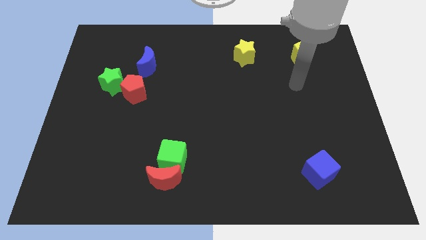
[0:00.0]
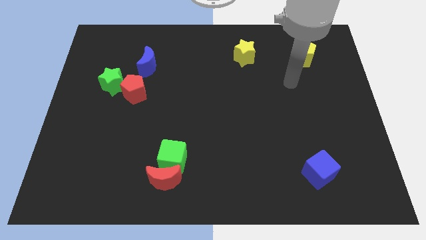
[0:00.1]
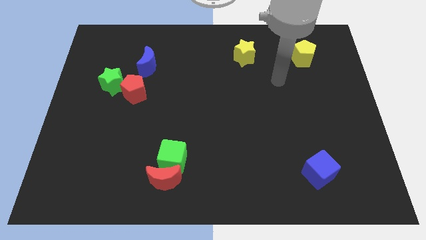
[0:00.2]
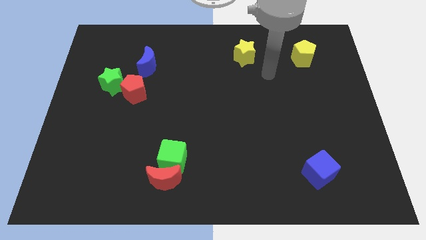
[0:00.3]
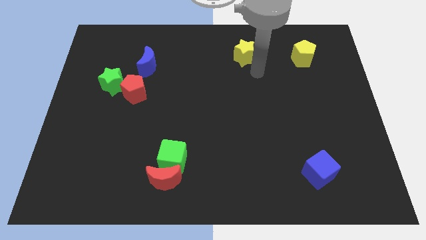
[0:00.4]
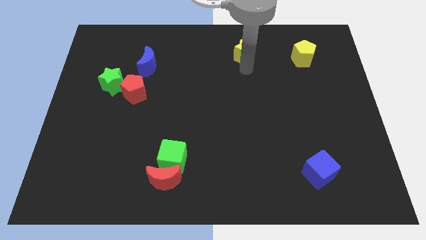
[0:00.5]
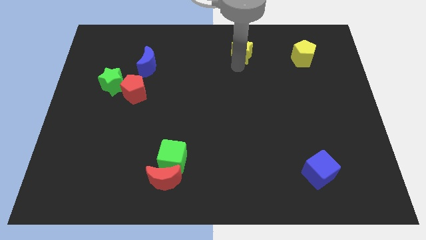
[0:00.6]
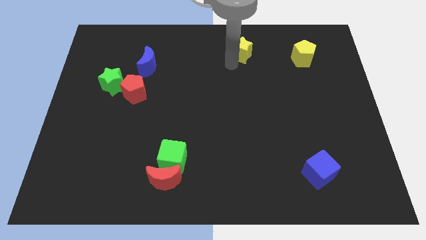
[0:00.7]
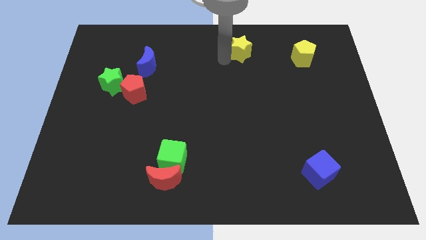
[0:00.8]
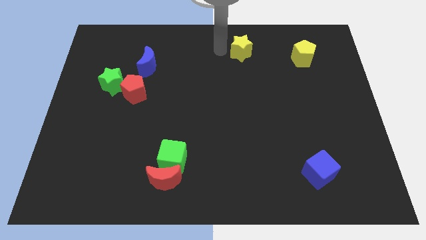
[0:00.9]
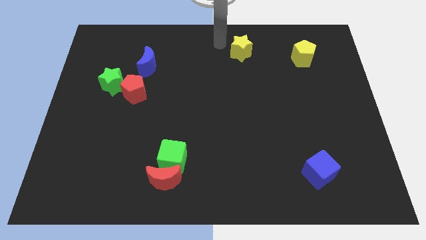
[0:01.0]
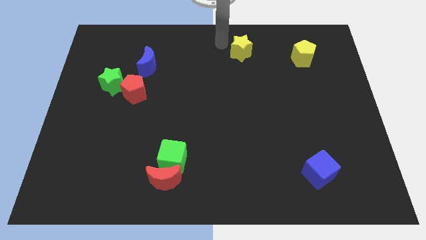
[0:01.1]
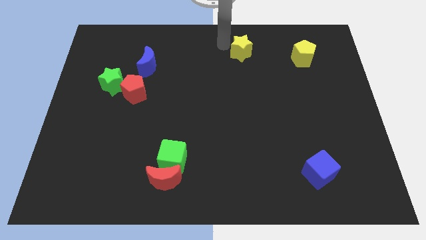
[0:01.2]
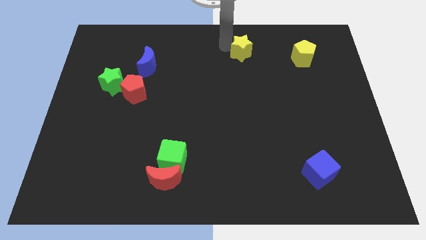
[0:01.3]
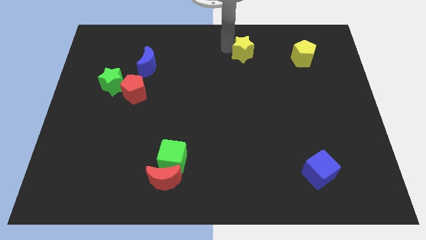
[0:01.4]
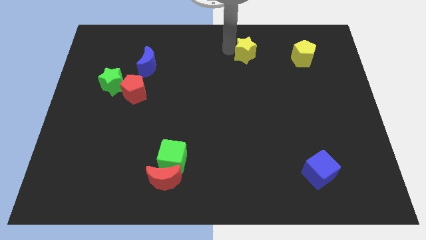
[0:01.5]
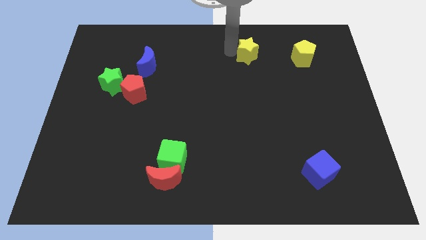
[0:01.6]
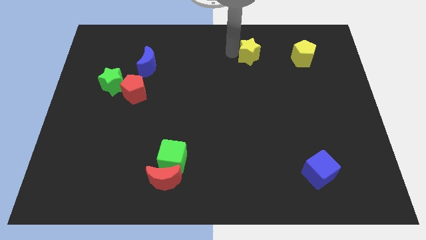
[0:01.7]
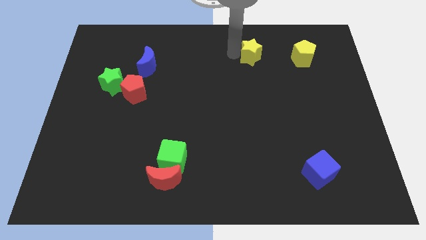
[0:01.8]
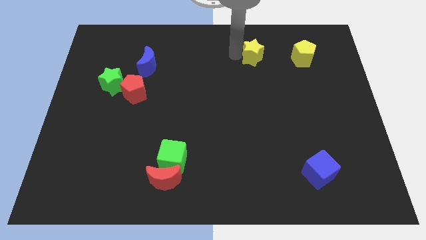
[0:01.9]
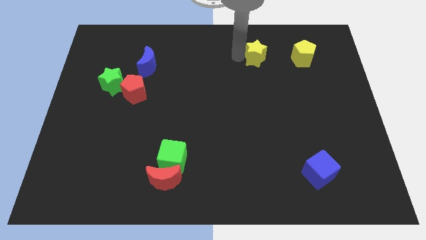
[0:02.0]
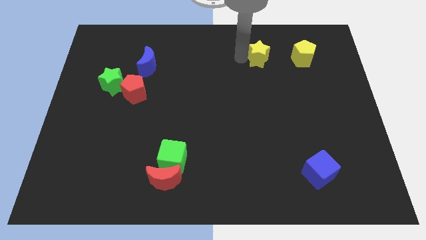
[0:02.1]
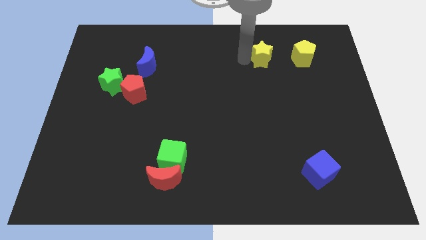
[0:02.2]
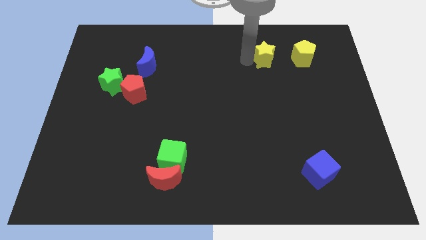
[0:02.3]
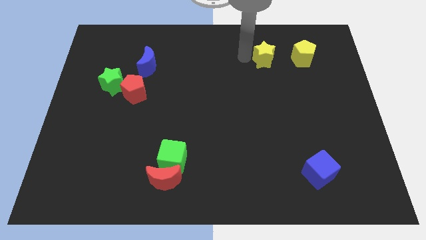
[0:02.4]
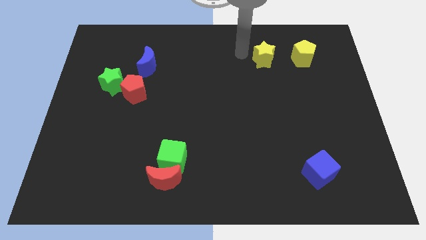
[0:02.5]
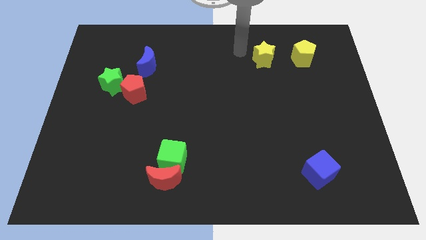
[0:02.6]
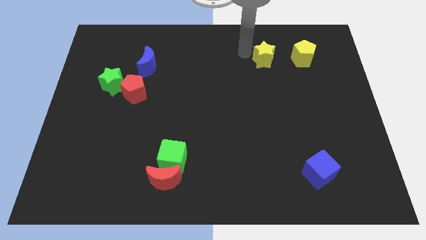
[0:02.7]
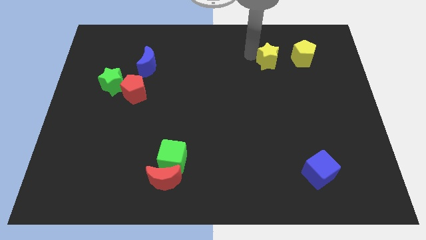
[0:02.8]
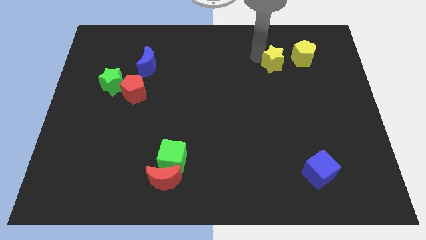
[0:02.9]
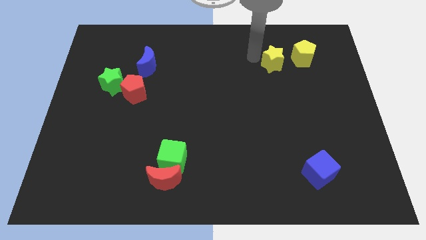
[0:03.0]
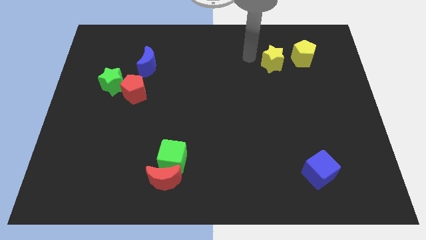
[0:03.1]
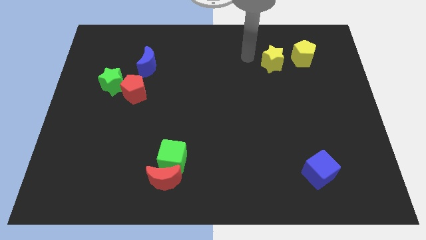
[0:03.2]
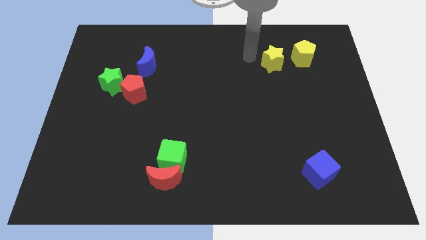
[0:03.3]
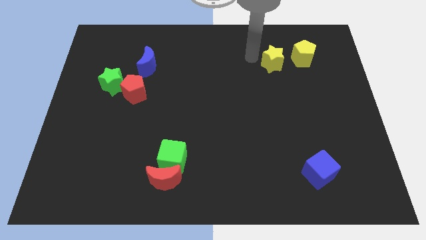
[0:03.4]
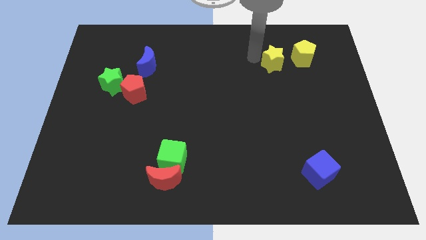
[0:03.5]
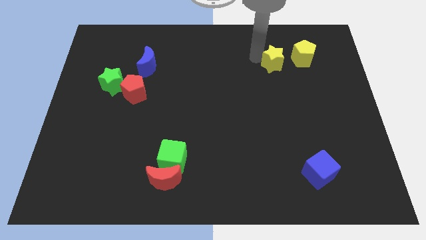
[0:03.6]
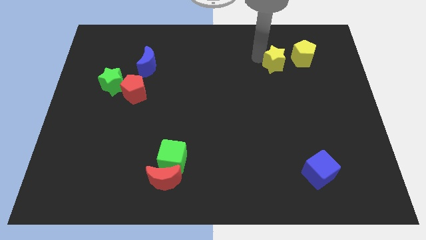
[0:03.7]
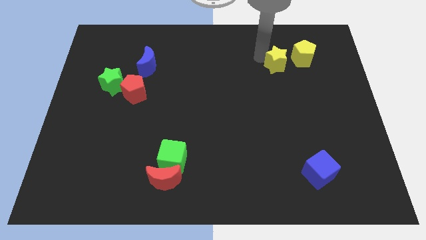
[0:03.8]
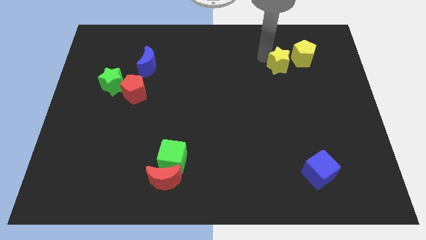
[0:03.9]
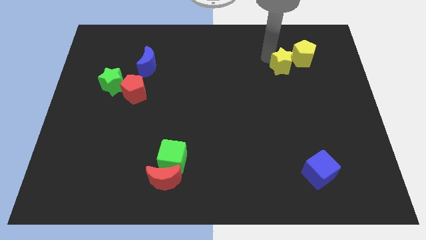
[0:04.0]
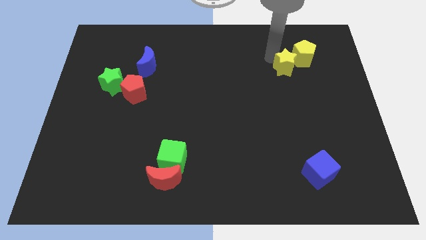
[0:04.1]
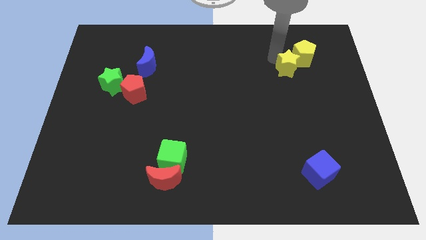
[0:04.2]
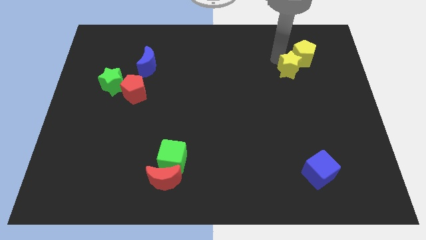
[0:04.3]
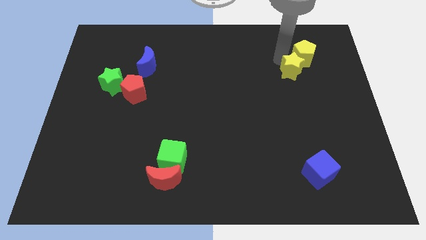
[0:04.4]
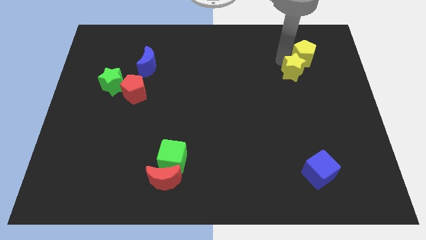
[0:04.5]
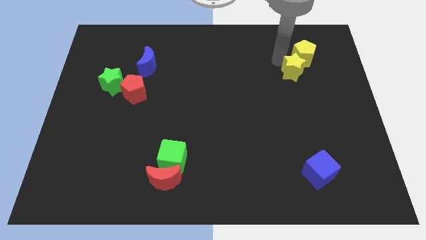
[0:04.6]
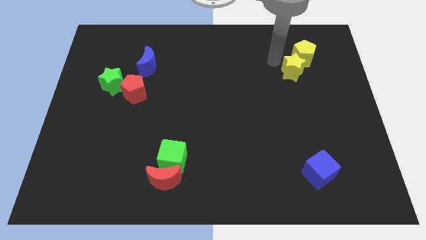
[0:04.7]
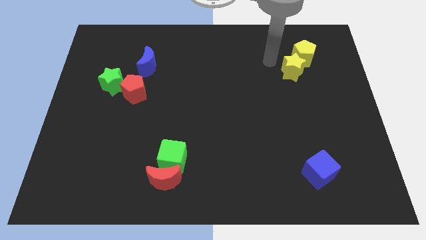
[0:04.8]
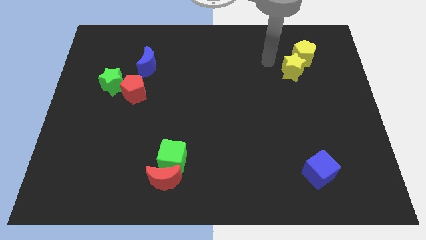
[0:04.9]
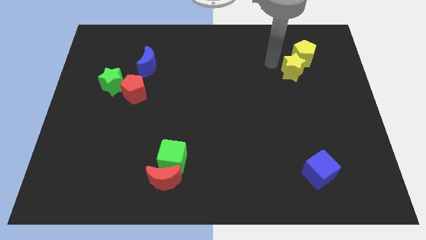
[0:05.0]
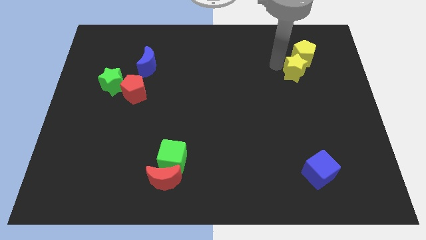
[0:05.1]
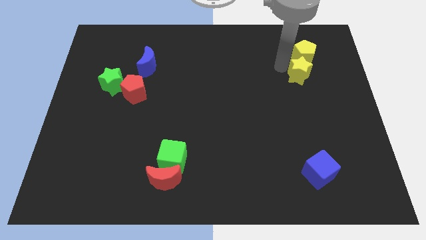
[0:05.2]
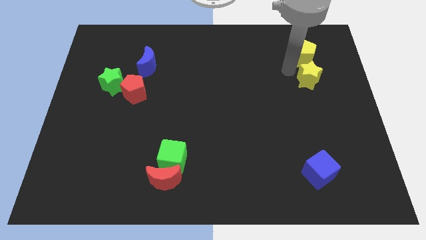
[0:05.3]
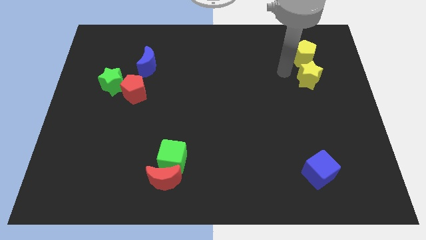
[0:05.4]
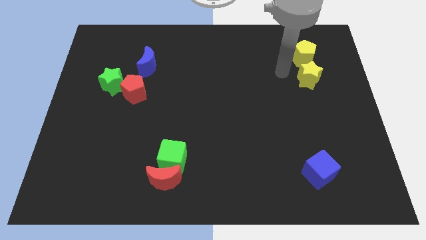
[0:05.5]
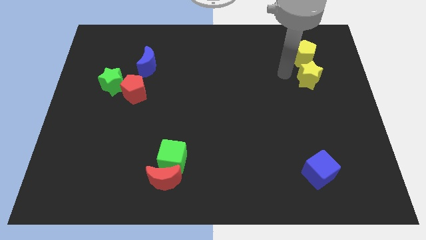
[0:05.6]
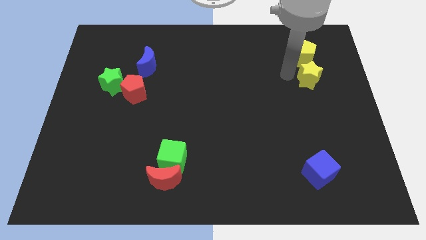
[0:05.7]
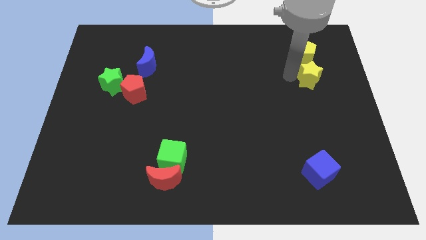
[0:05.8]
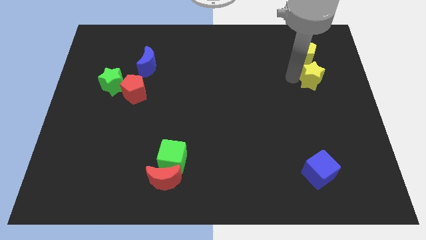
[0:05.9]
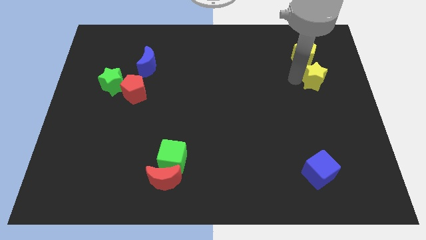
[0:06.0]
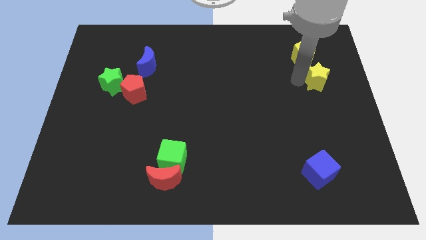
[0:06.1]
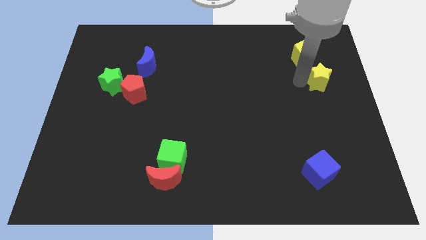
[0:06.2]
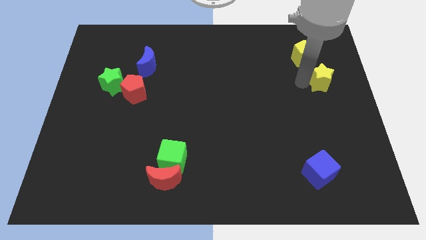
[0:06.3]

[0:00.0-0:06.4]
push the yellow star to the center right
